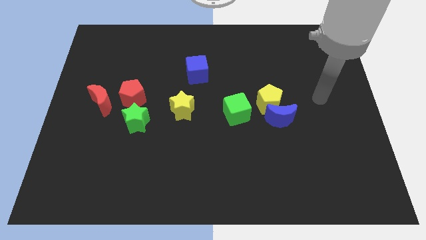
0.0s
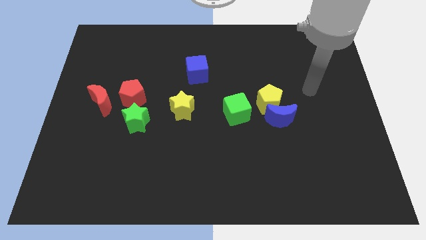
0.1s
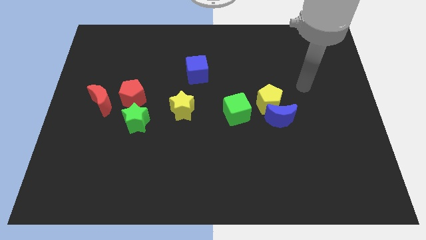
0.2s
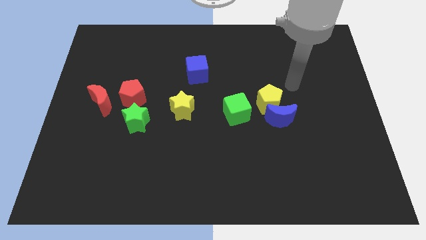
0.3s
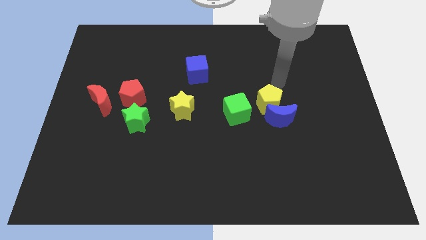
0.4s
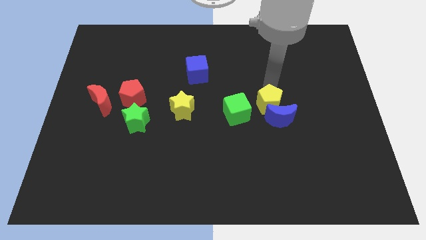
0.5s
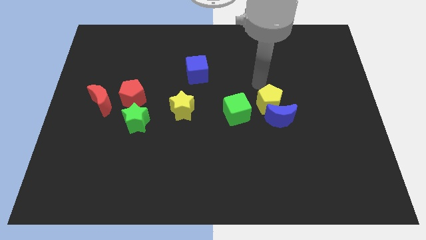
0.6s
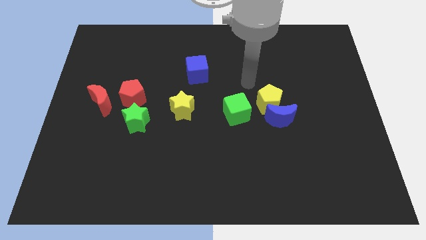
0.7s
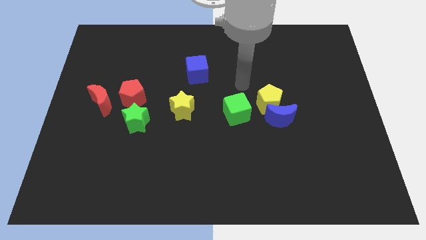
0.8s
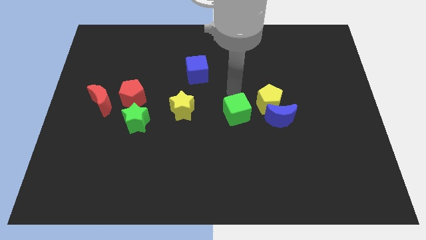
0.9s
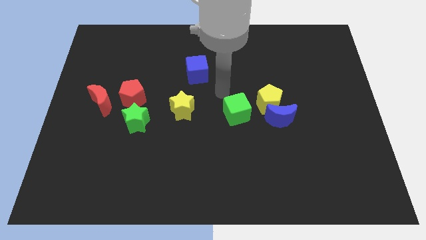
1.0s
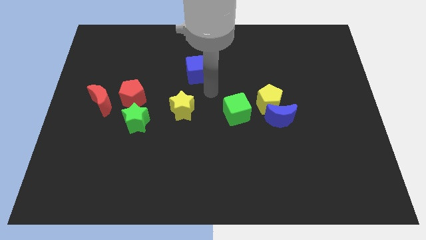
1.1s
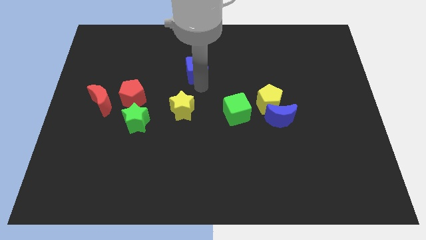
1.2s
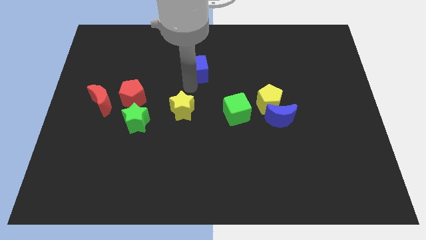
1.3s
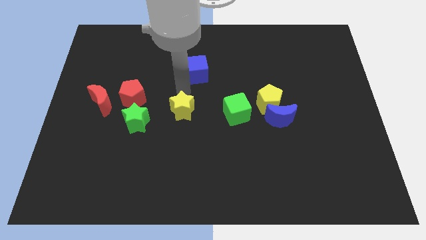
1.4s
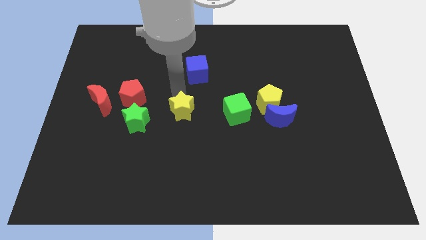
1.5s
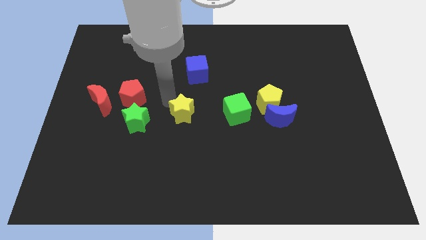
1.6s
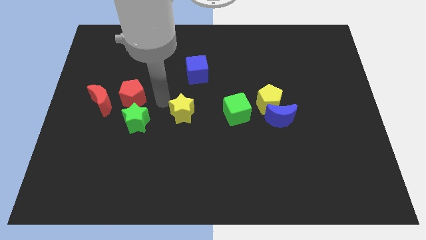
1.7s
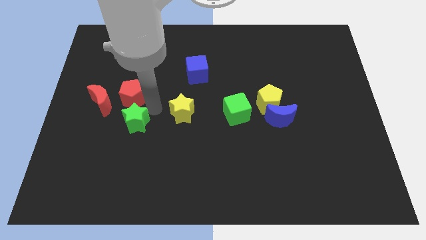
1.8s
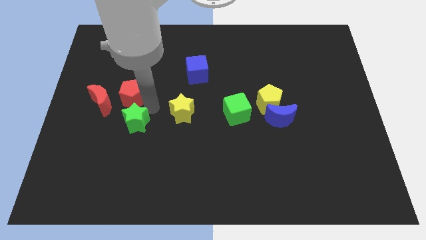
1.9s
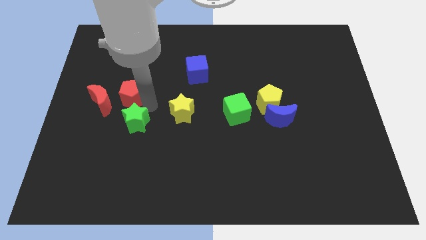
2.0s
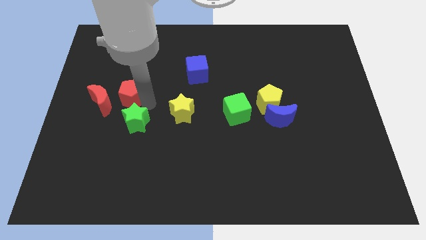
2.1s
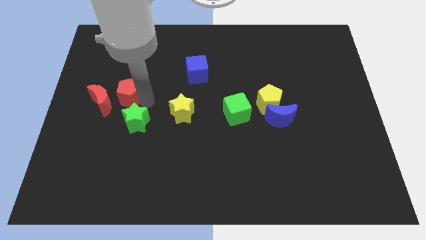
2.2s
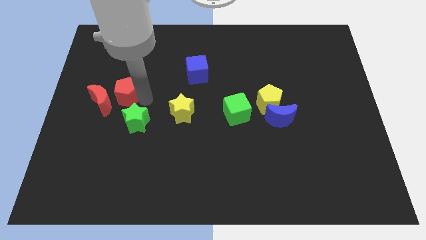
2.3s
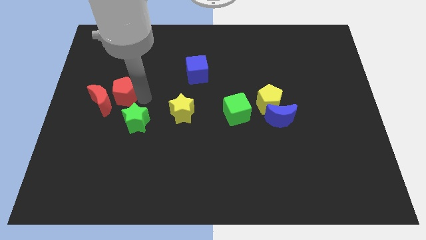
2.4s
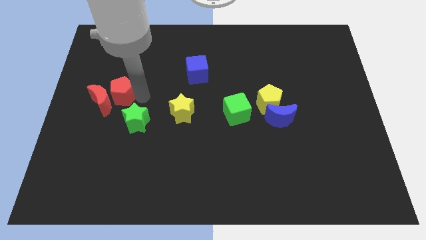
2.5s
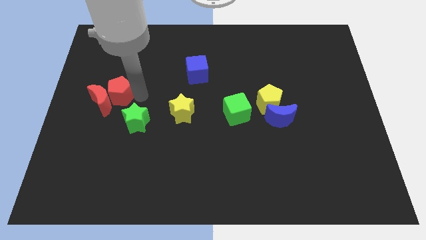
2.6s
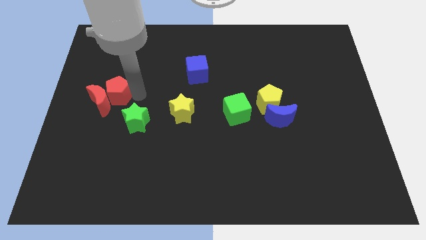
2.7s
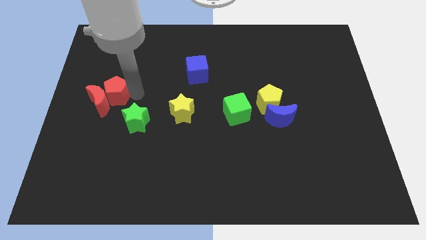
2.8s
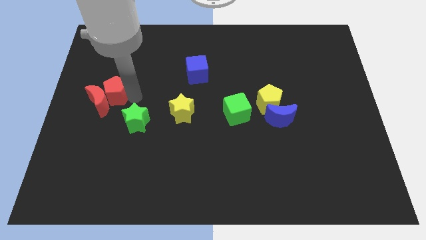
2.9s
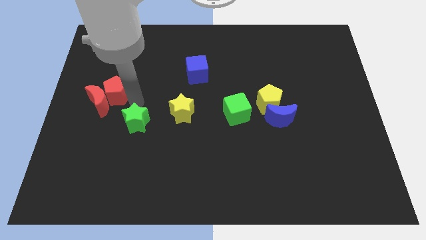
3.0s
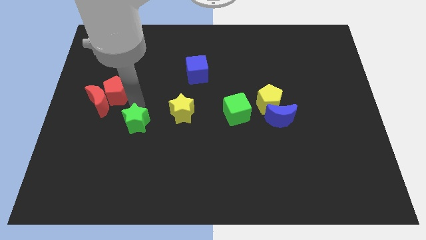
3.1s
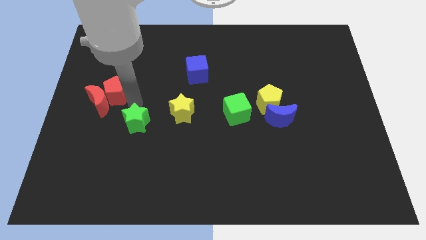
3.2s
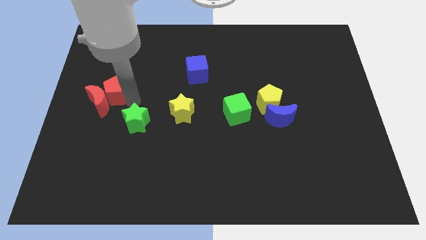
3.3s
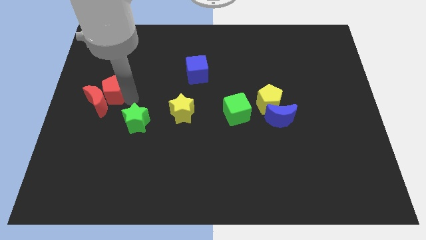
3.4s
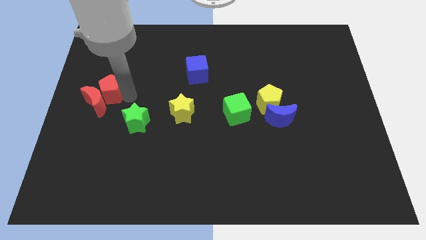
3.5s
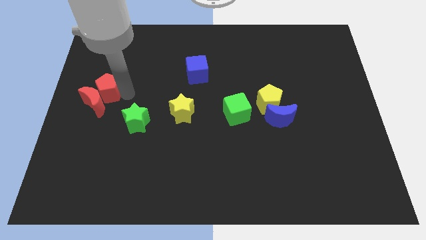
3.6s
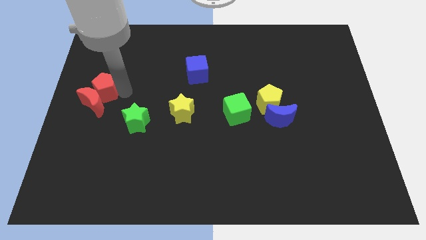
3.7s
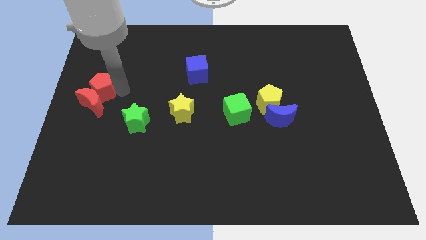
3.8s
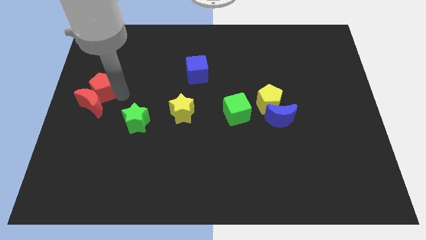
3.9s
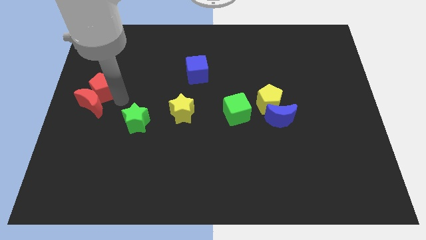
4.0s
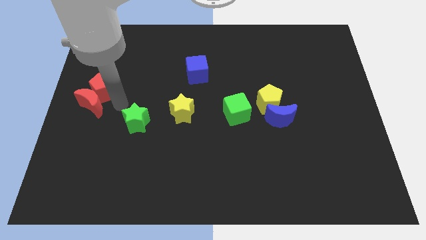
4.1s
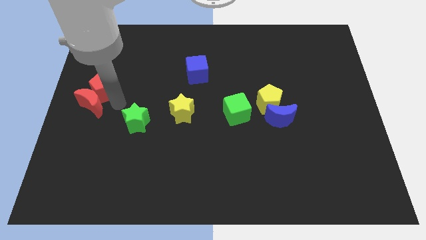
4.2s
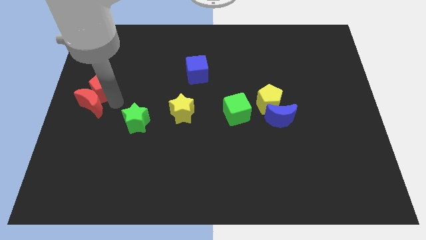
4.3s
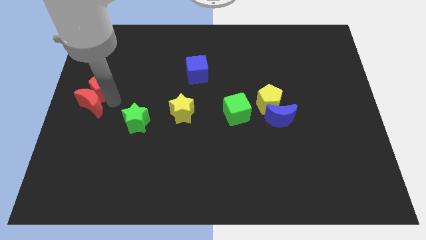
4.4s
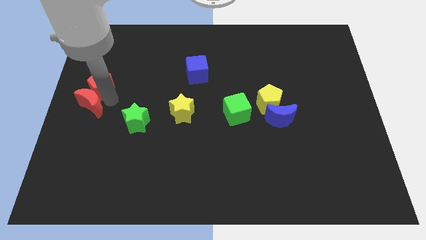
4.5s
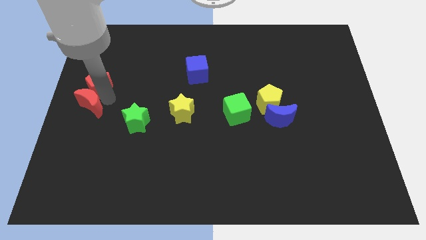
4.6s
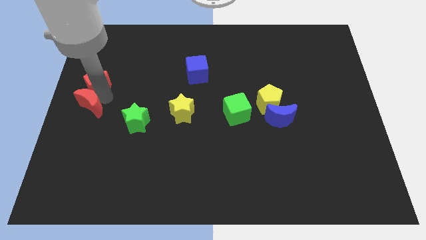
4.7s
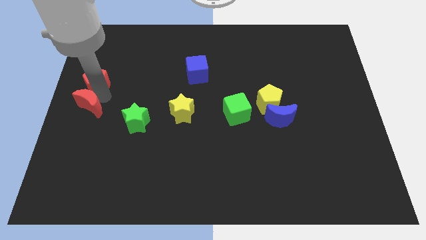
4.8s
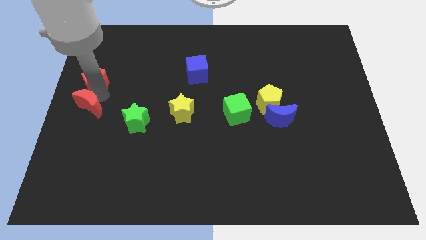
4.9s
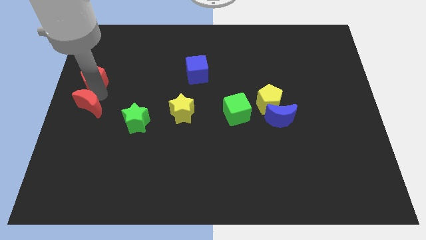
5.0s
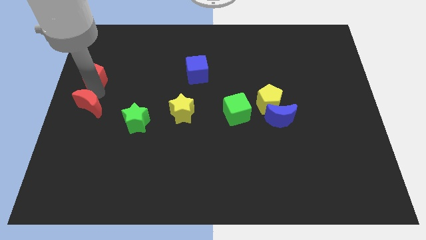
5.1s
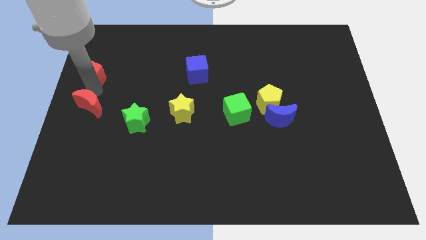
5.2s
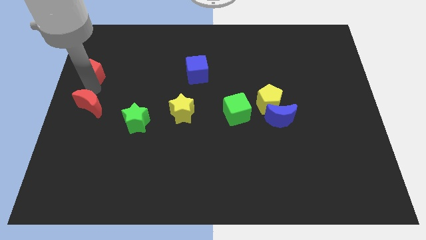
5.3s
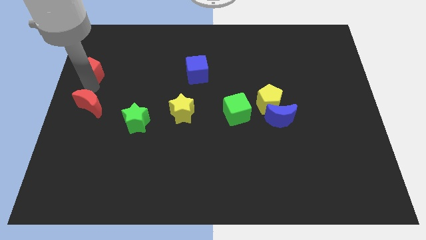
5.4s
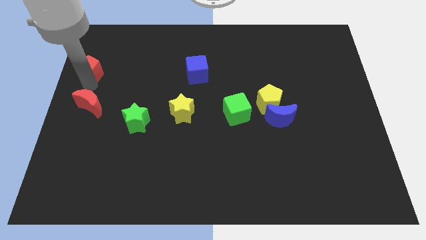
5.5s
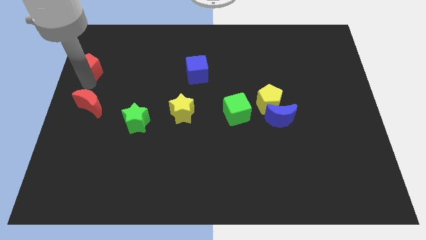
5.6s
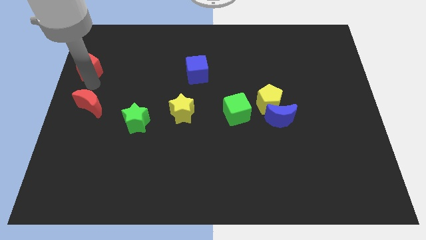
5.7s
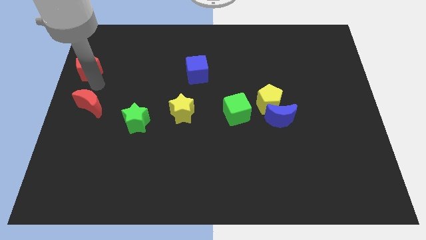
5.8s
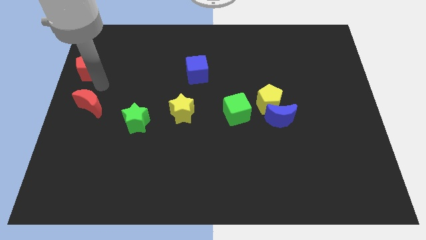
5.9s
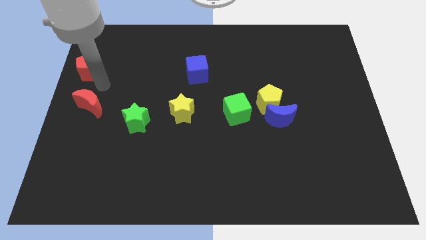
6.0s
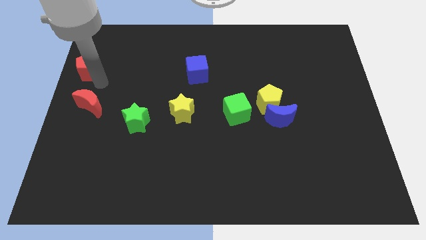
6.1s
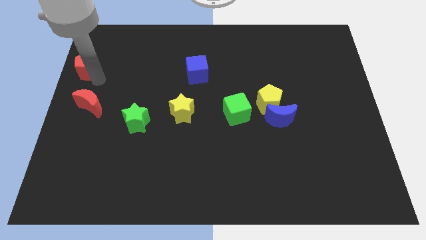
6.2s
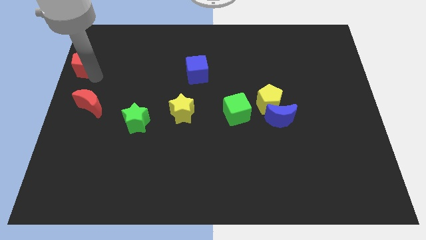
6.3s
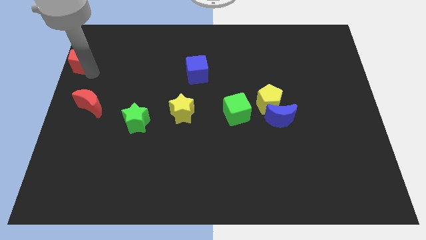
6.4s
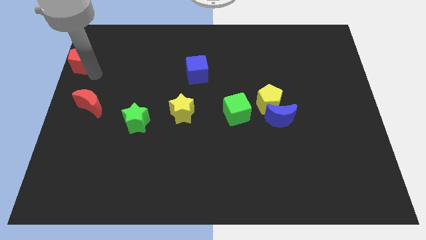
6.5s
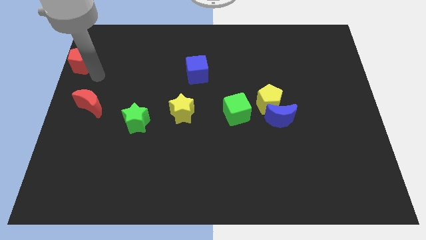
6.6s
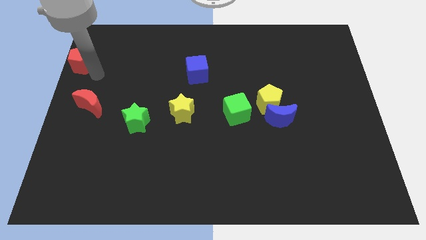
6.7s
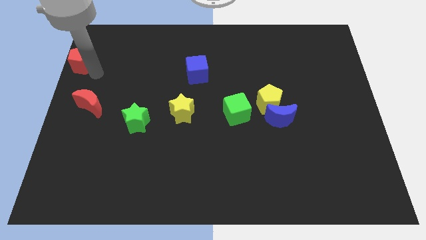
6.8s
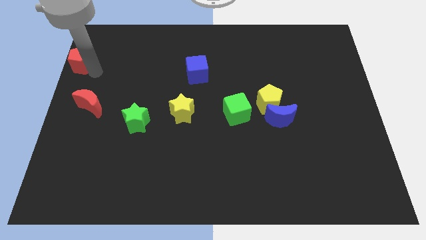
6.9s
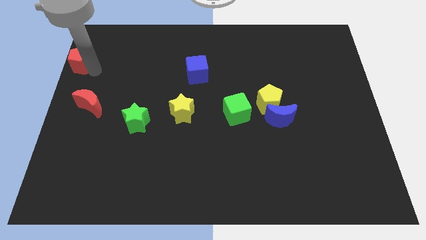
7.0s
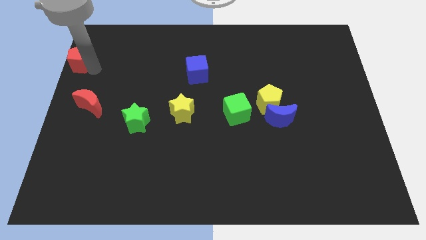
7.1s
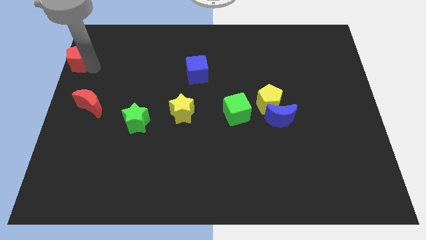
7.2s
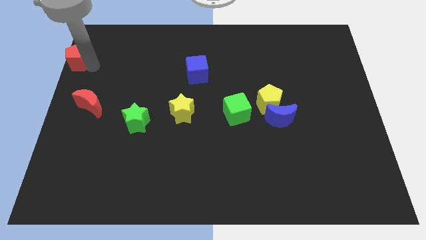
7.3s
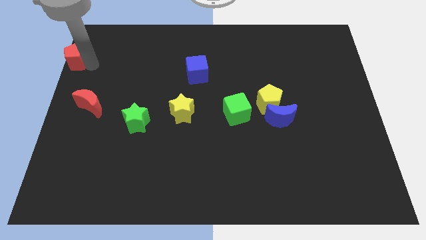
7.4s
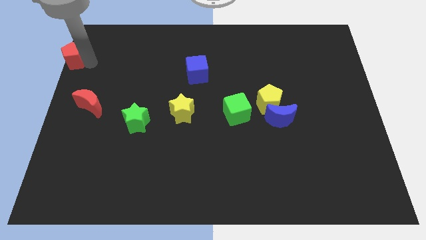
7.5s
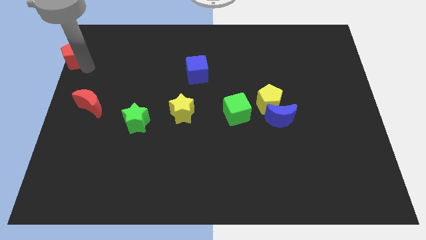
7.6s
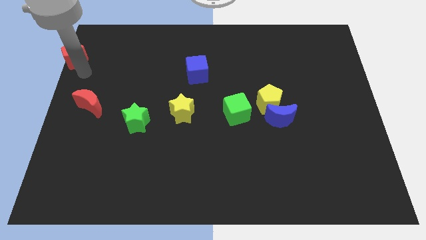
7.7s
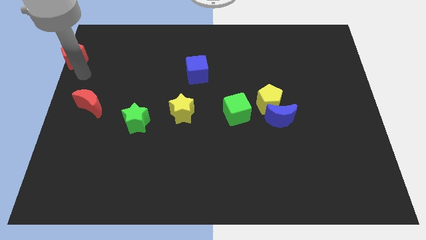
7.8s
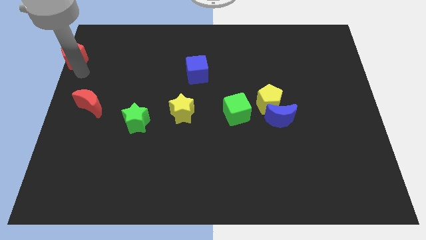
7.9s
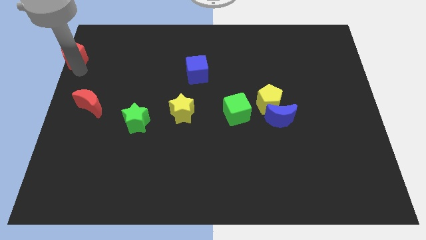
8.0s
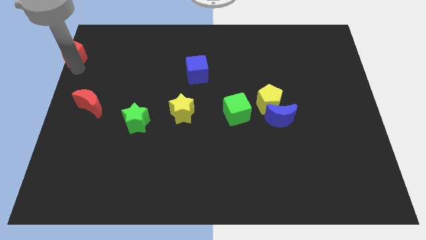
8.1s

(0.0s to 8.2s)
push the red pentagon to the top left of the board
